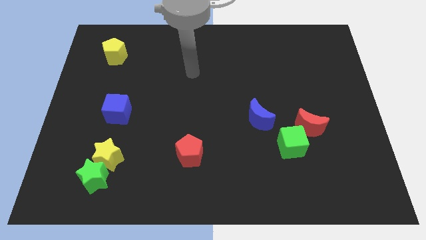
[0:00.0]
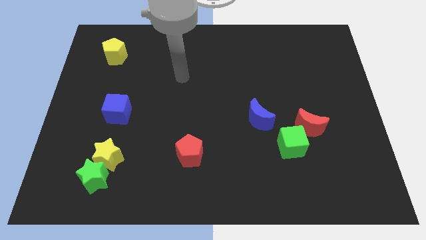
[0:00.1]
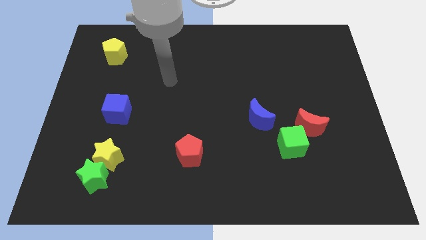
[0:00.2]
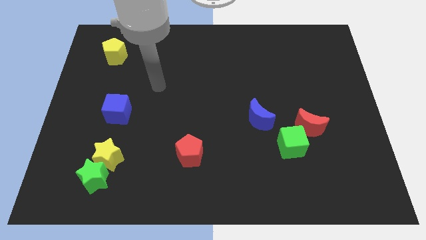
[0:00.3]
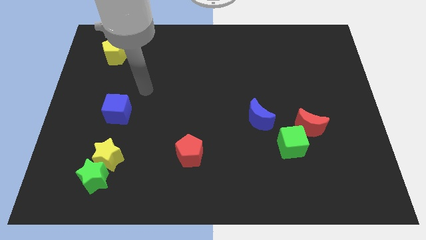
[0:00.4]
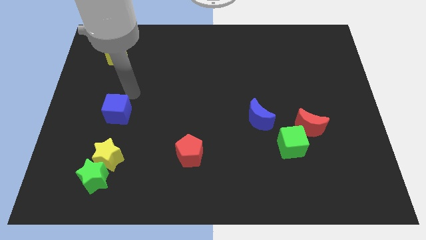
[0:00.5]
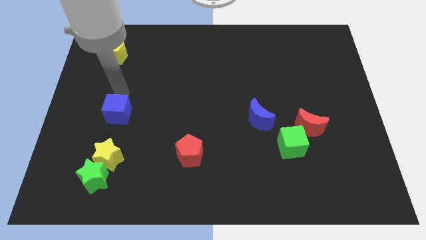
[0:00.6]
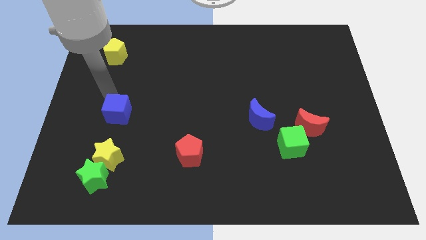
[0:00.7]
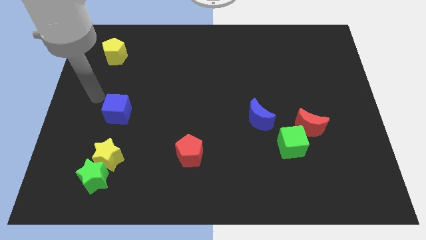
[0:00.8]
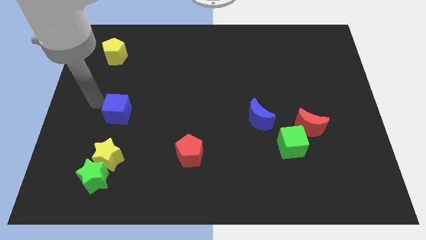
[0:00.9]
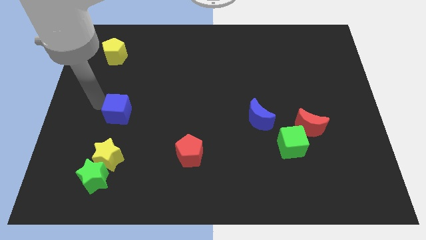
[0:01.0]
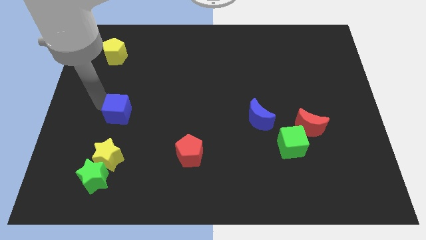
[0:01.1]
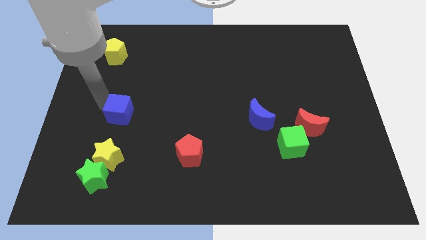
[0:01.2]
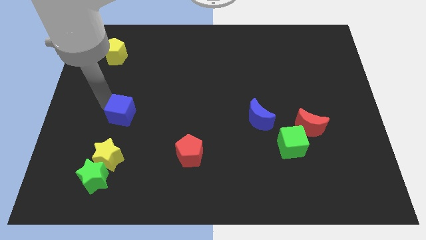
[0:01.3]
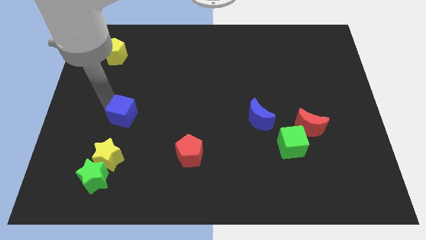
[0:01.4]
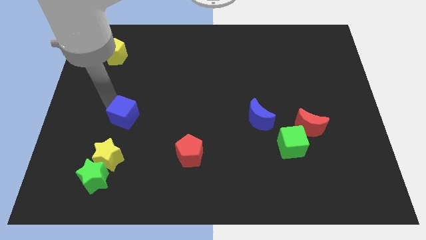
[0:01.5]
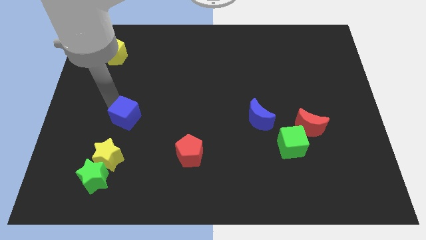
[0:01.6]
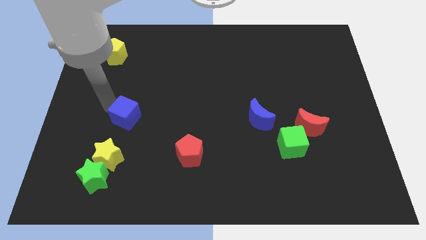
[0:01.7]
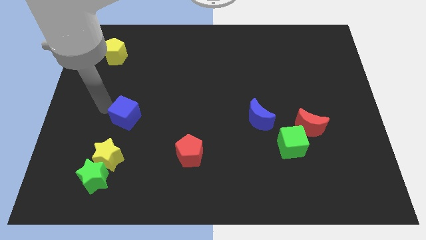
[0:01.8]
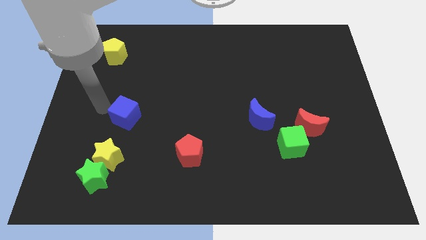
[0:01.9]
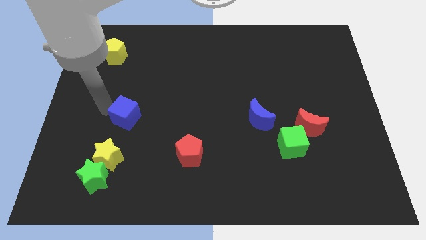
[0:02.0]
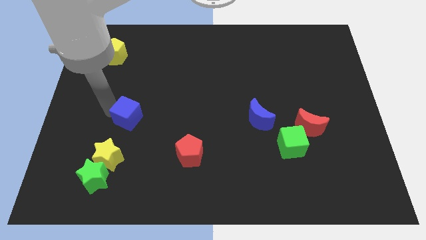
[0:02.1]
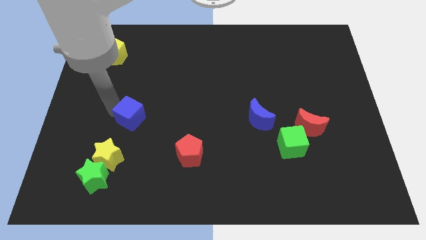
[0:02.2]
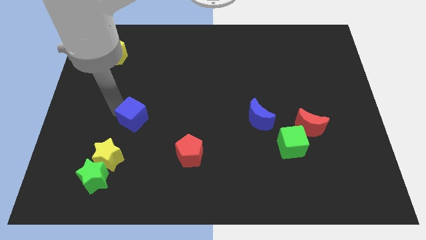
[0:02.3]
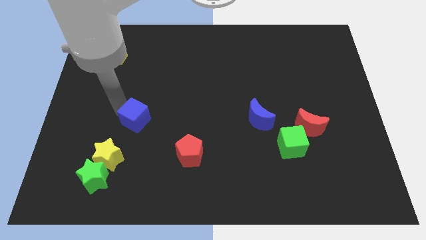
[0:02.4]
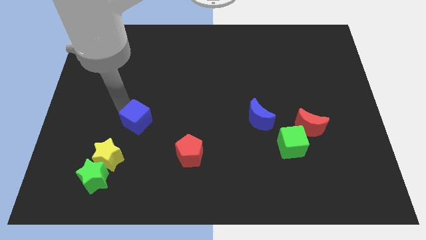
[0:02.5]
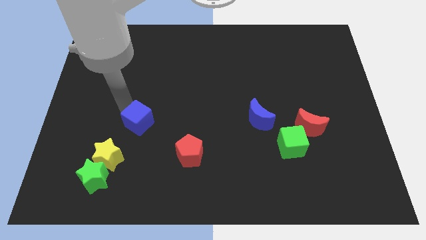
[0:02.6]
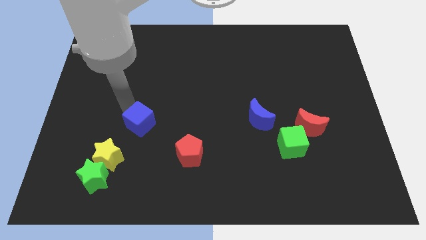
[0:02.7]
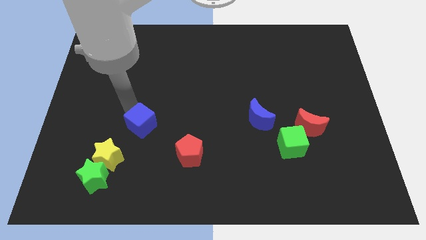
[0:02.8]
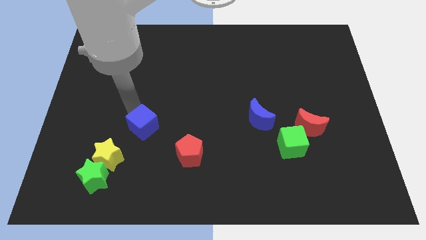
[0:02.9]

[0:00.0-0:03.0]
slightly move the blue cube down and right diagonally

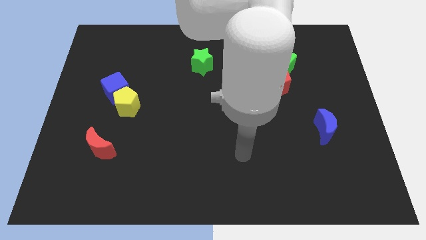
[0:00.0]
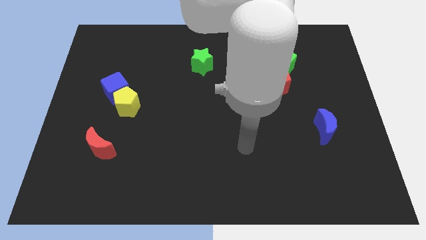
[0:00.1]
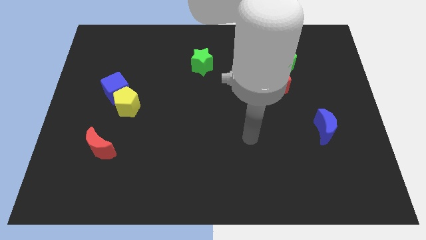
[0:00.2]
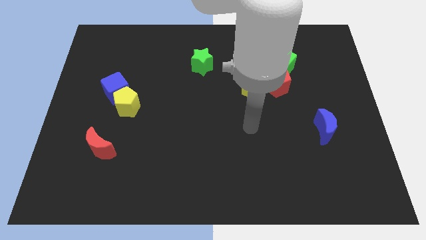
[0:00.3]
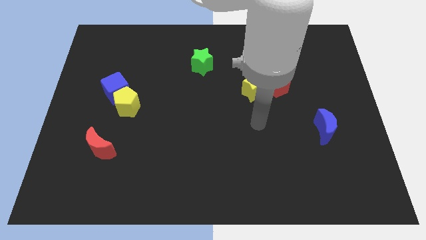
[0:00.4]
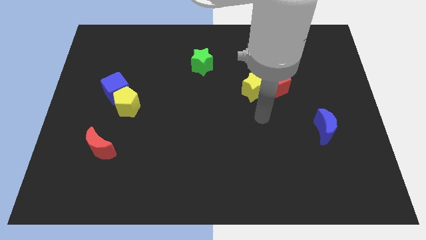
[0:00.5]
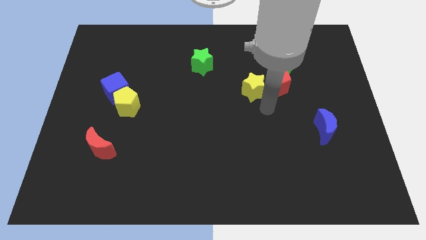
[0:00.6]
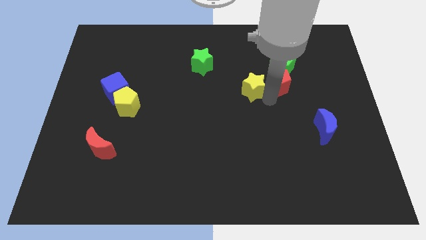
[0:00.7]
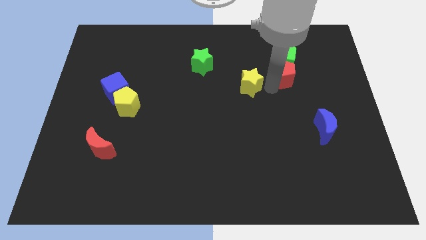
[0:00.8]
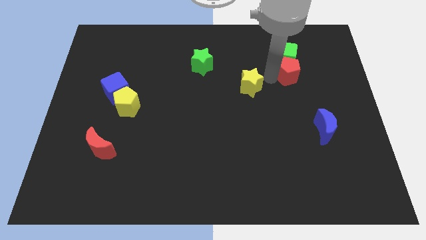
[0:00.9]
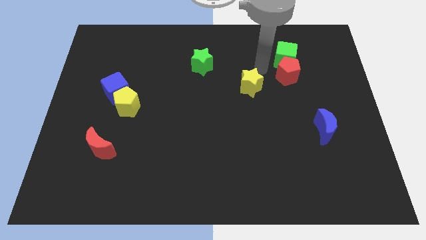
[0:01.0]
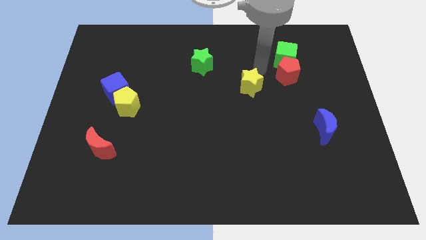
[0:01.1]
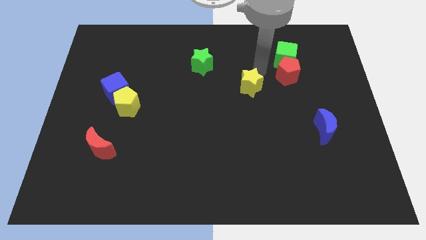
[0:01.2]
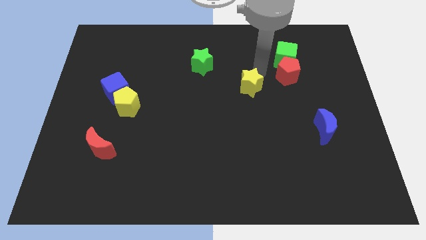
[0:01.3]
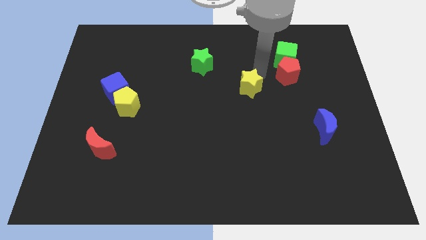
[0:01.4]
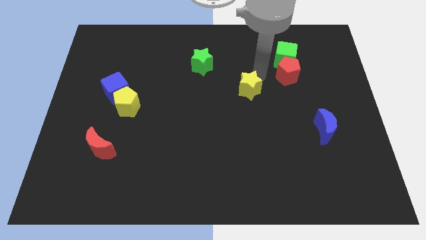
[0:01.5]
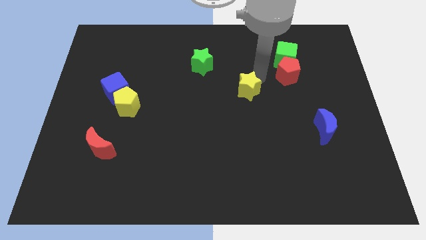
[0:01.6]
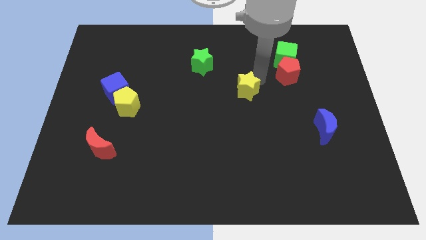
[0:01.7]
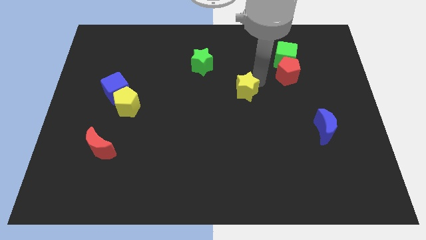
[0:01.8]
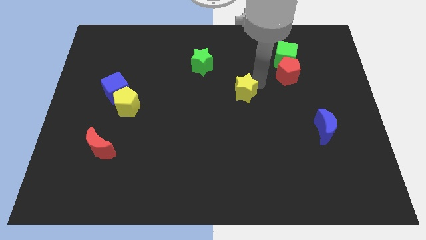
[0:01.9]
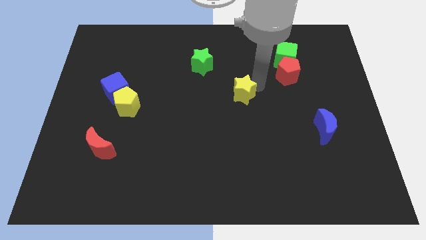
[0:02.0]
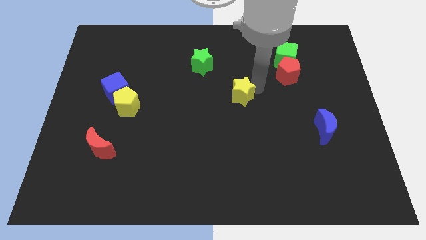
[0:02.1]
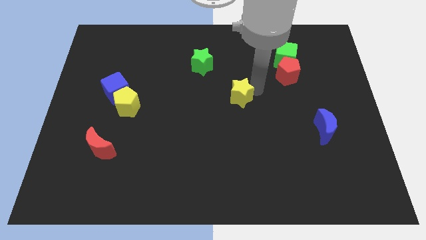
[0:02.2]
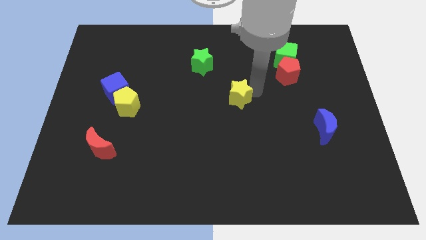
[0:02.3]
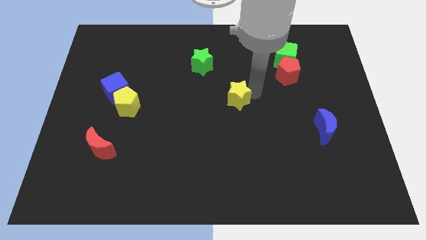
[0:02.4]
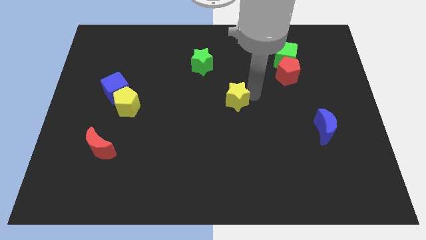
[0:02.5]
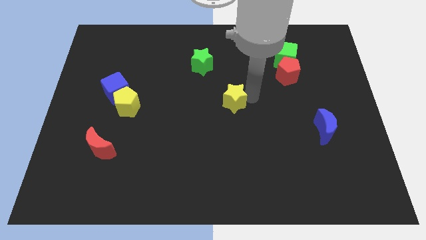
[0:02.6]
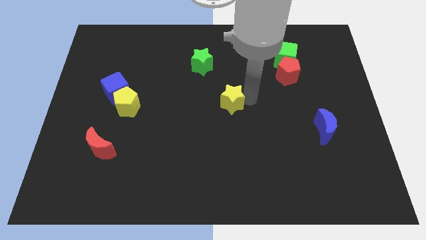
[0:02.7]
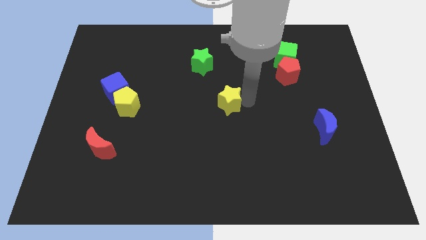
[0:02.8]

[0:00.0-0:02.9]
slightly slide the yellow star downwards and left diagonally

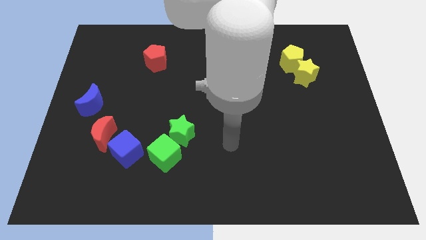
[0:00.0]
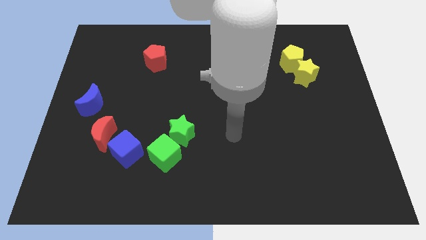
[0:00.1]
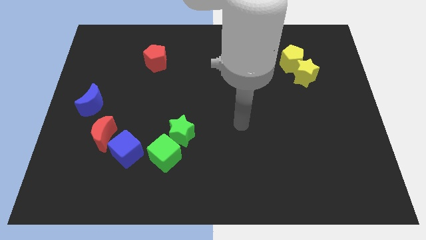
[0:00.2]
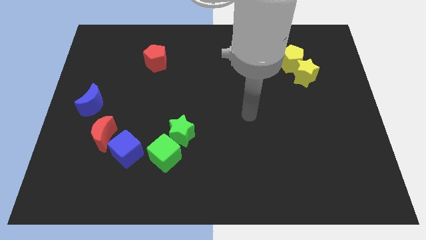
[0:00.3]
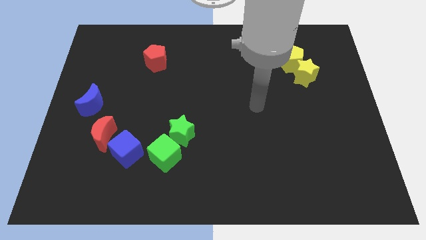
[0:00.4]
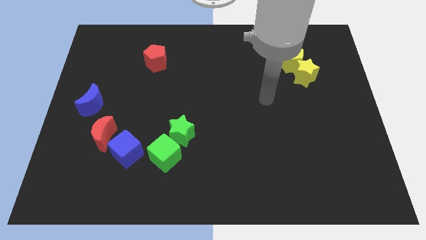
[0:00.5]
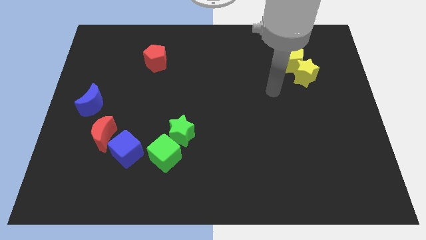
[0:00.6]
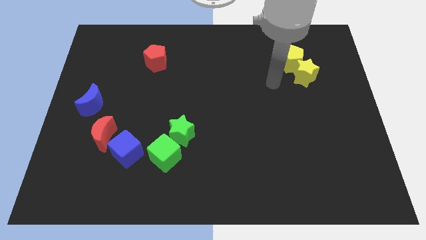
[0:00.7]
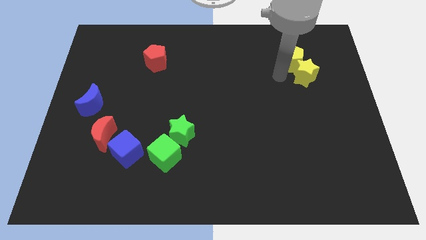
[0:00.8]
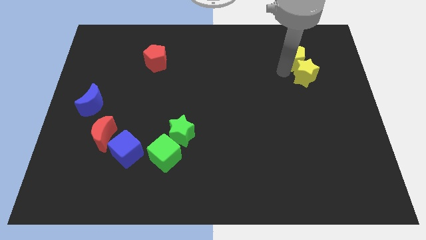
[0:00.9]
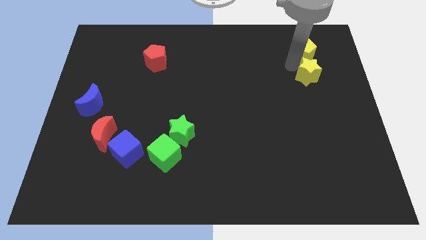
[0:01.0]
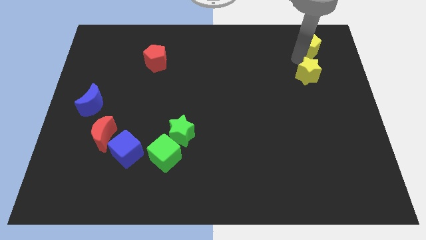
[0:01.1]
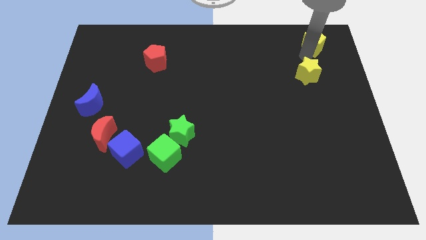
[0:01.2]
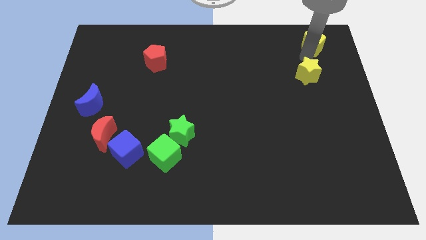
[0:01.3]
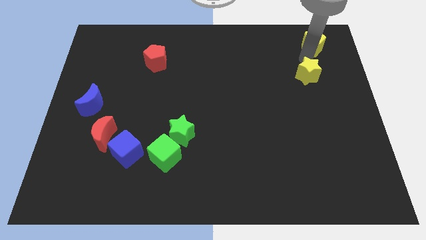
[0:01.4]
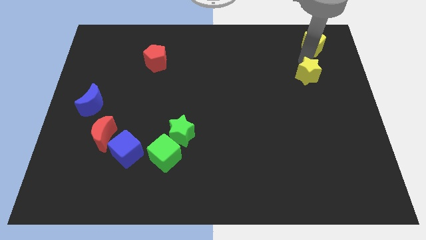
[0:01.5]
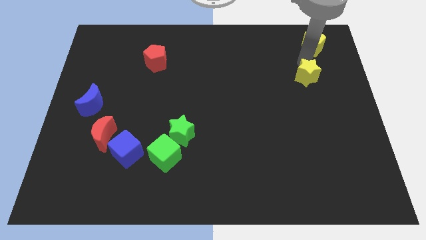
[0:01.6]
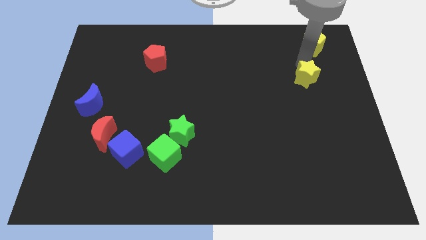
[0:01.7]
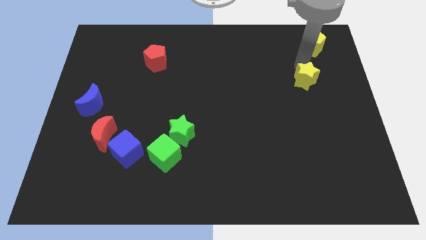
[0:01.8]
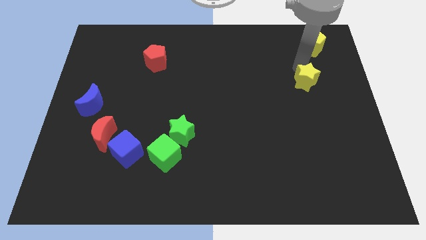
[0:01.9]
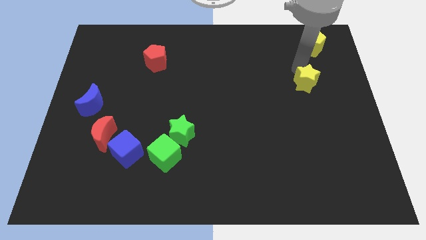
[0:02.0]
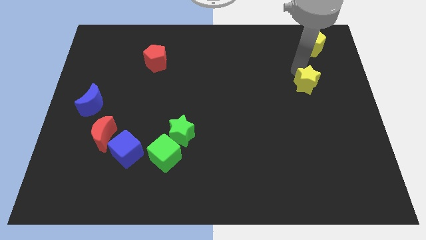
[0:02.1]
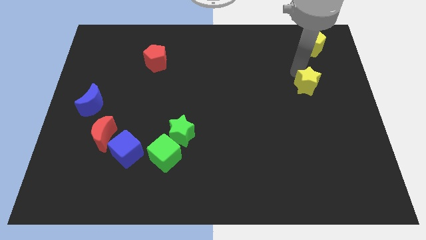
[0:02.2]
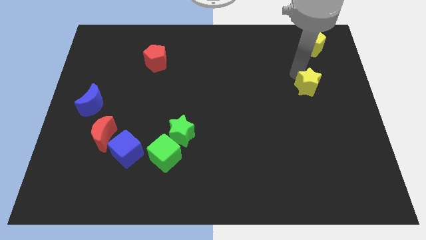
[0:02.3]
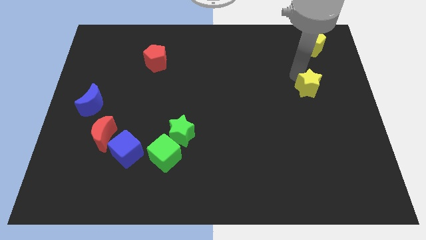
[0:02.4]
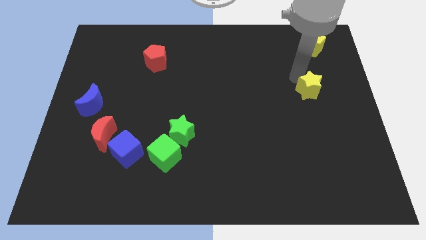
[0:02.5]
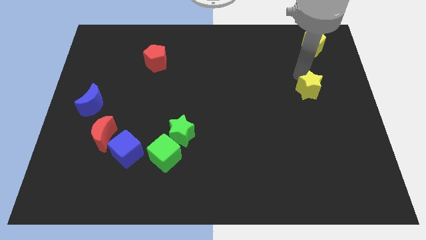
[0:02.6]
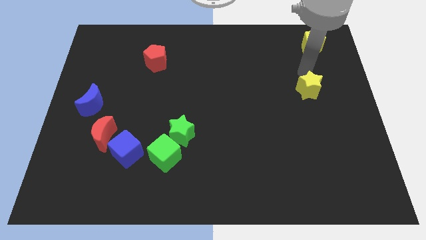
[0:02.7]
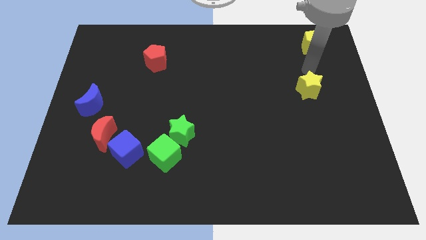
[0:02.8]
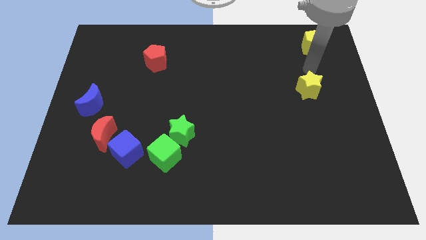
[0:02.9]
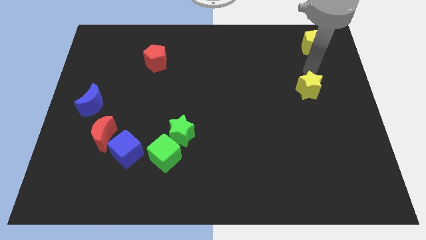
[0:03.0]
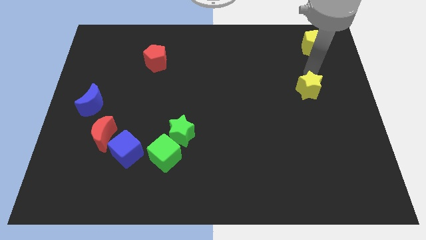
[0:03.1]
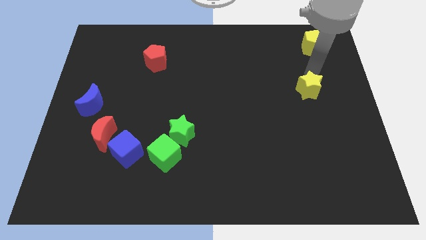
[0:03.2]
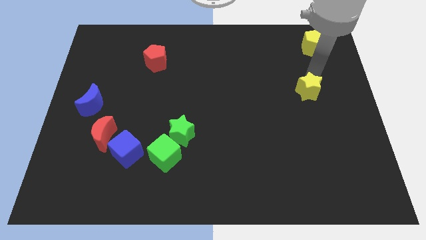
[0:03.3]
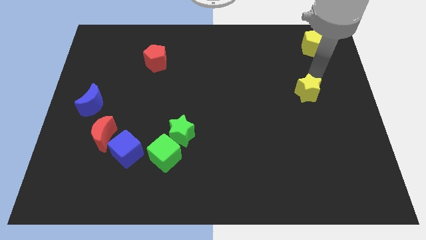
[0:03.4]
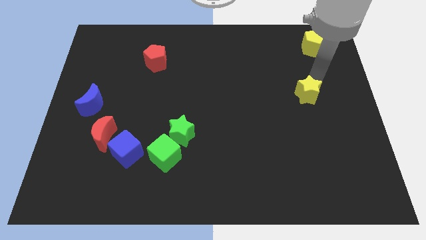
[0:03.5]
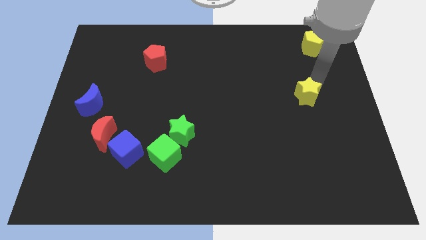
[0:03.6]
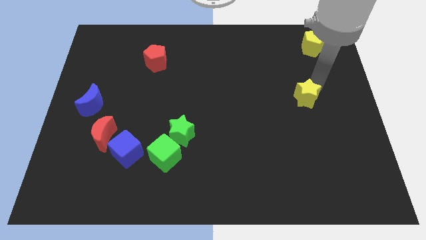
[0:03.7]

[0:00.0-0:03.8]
slide the yellow star a little bit downwards
